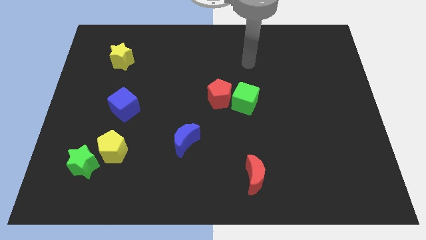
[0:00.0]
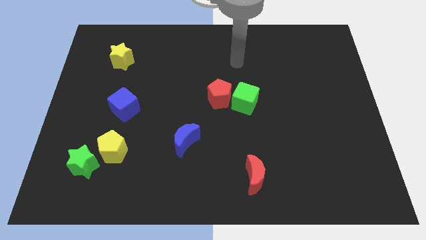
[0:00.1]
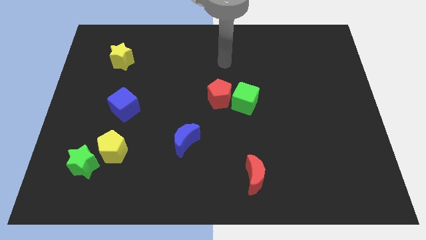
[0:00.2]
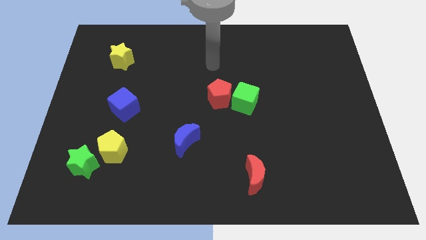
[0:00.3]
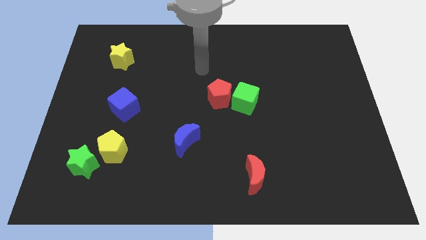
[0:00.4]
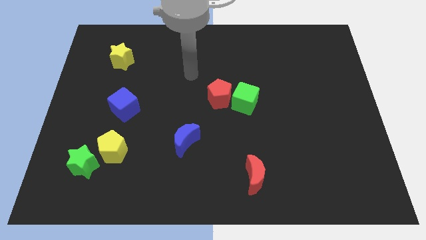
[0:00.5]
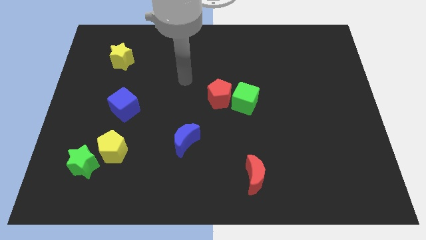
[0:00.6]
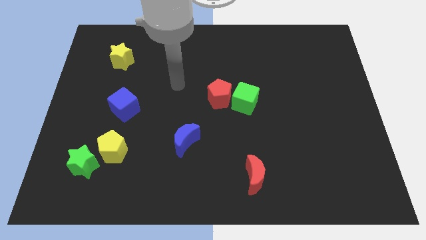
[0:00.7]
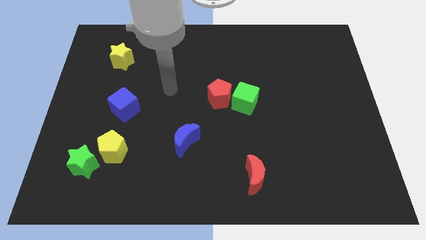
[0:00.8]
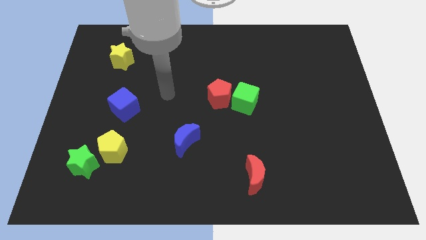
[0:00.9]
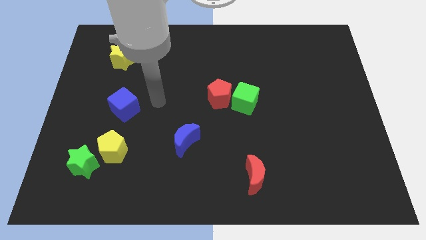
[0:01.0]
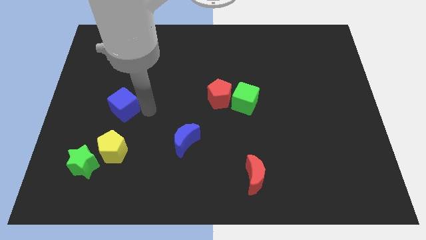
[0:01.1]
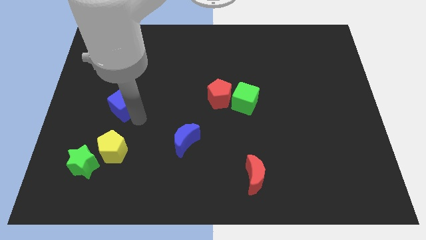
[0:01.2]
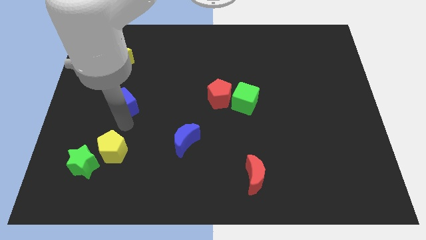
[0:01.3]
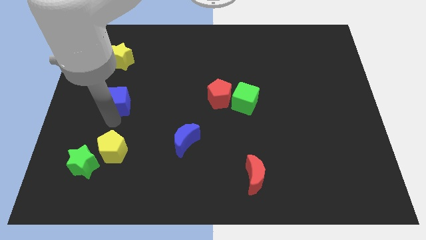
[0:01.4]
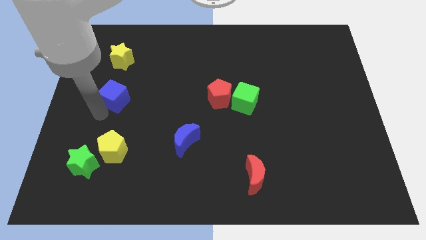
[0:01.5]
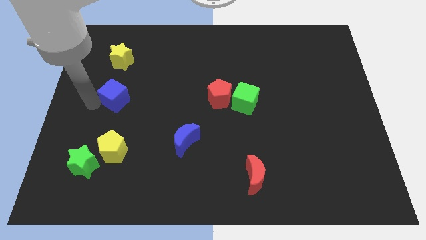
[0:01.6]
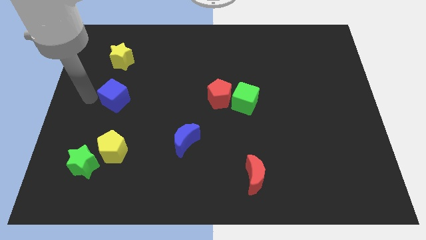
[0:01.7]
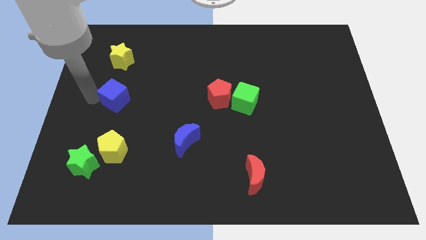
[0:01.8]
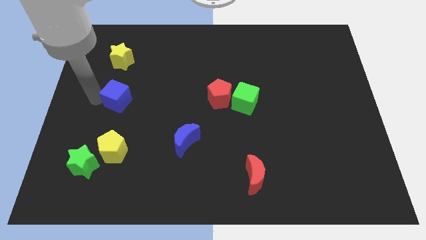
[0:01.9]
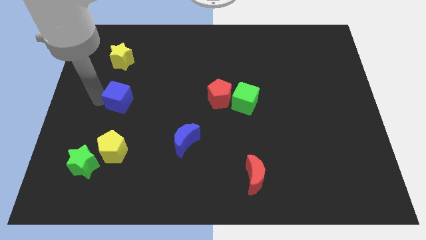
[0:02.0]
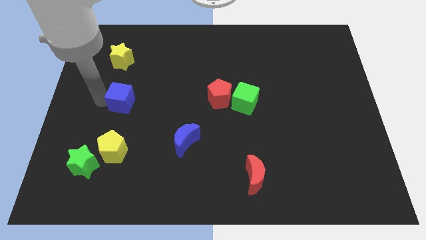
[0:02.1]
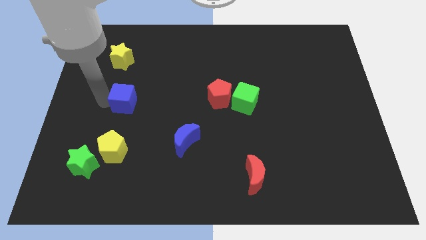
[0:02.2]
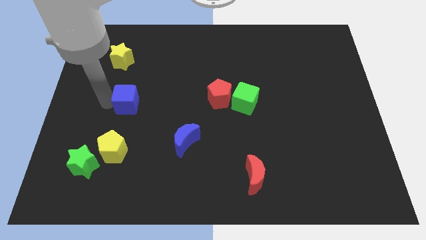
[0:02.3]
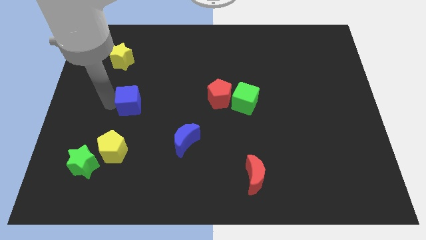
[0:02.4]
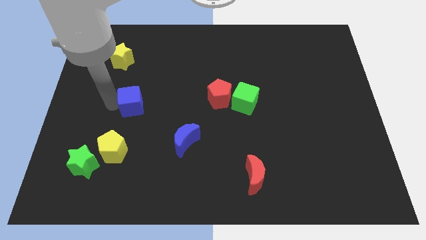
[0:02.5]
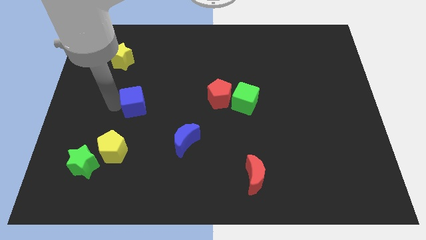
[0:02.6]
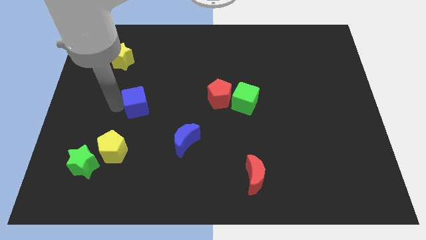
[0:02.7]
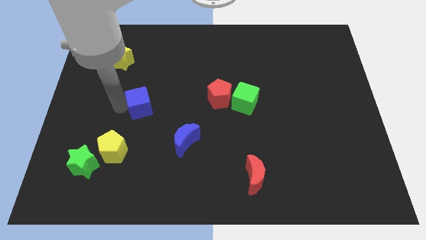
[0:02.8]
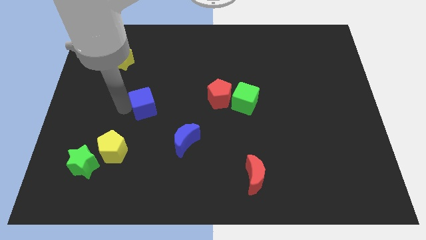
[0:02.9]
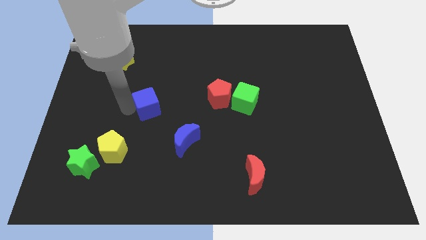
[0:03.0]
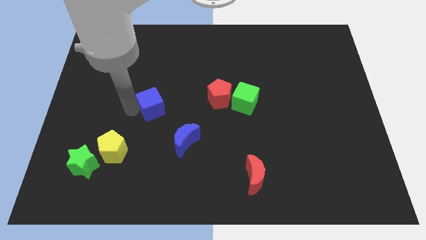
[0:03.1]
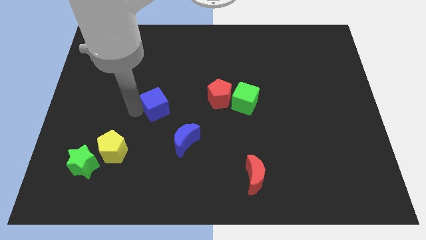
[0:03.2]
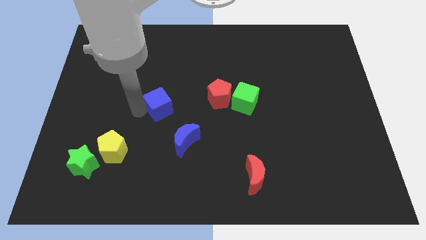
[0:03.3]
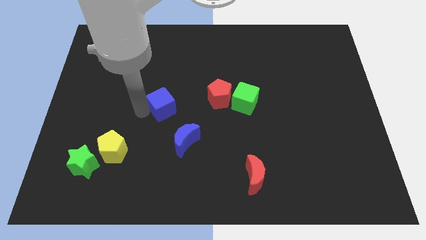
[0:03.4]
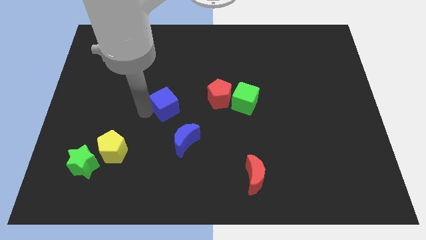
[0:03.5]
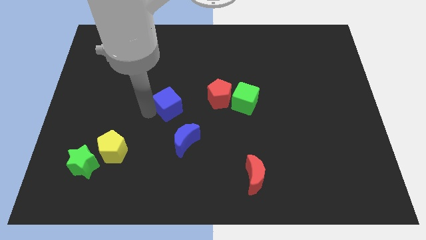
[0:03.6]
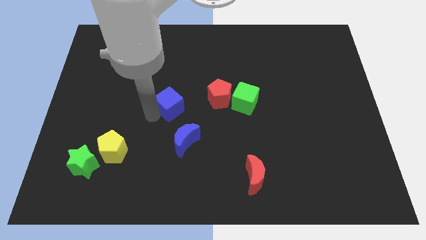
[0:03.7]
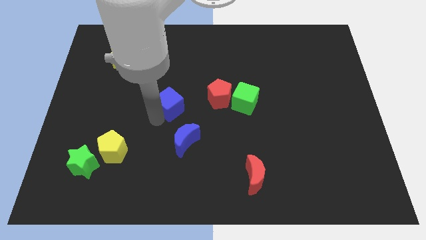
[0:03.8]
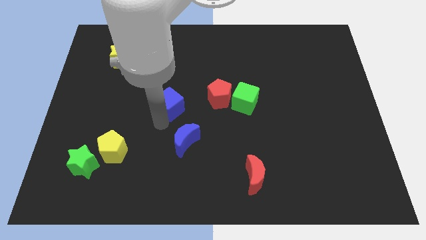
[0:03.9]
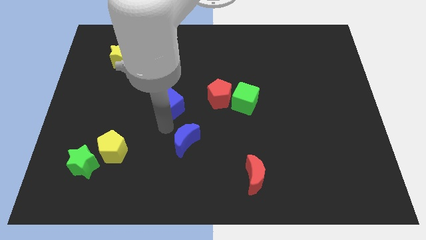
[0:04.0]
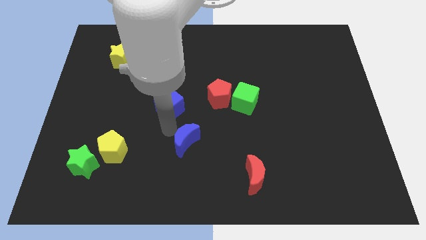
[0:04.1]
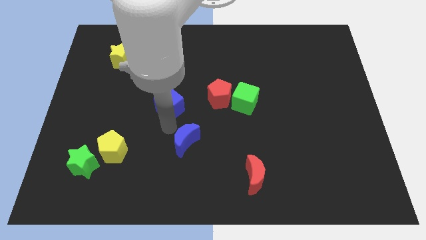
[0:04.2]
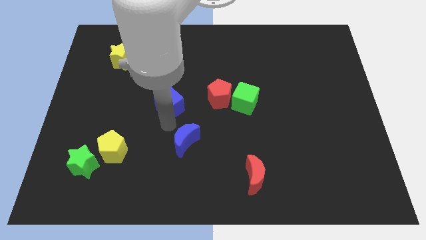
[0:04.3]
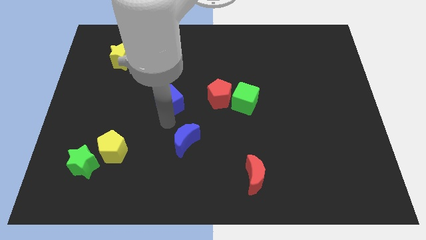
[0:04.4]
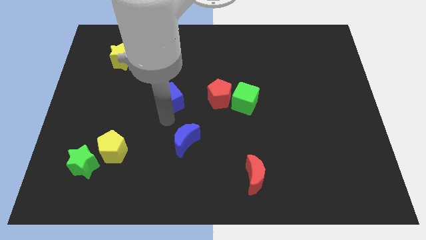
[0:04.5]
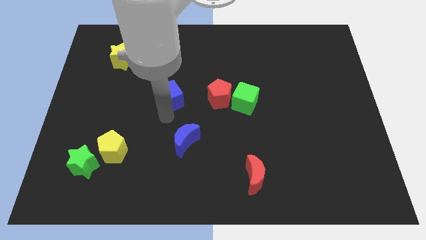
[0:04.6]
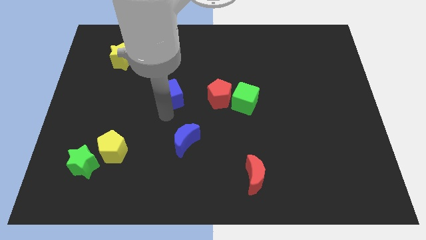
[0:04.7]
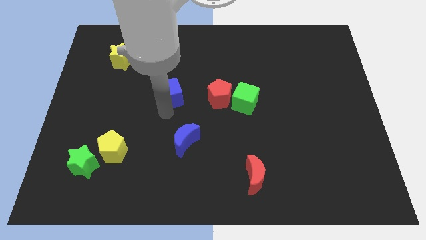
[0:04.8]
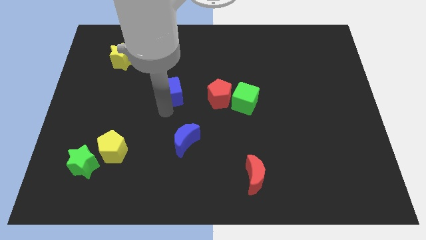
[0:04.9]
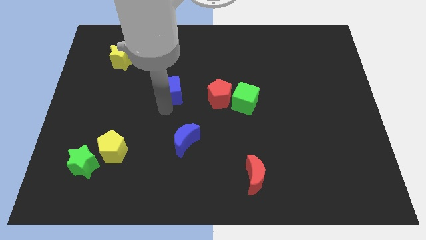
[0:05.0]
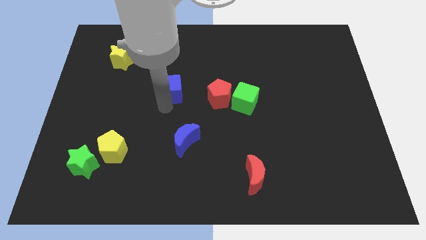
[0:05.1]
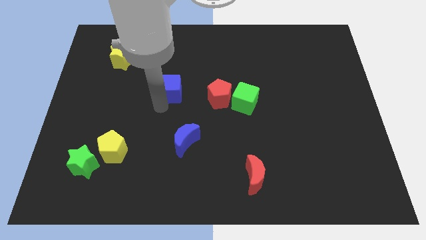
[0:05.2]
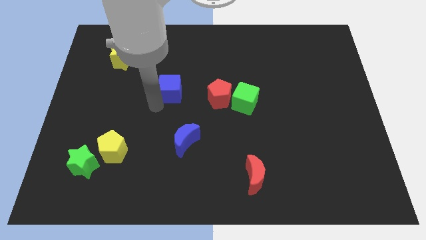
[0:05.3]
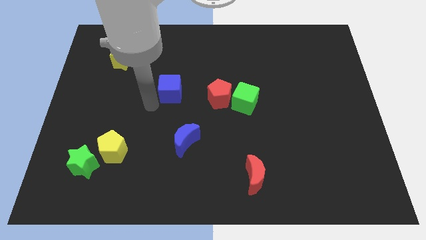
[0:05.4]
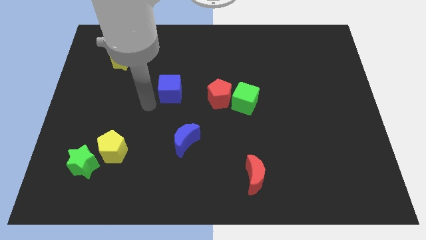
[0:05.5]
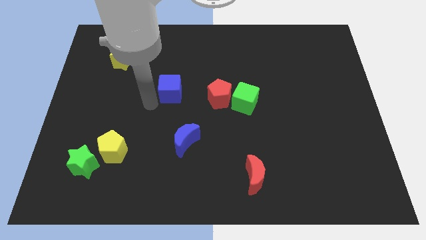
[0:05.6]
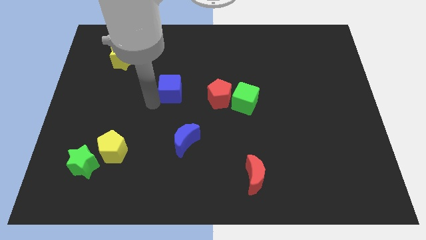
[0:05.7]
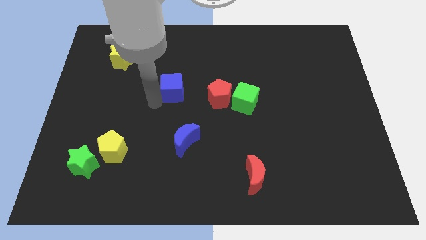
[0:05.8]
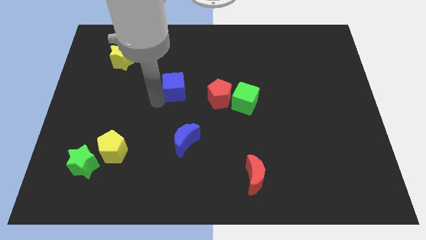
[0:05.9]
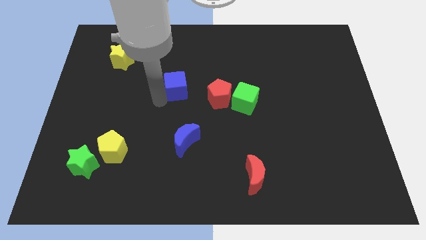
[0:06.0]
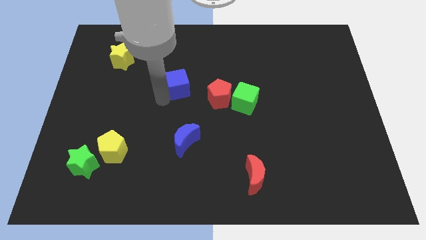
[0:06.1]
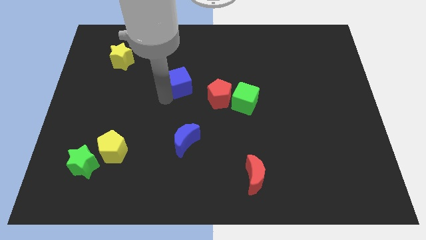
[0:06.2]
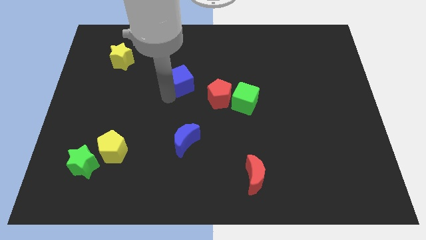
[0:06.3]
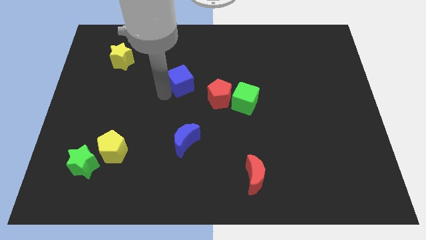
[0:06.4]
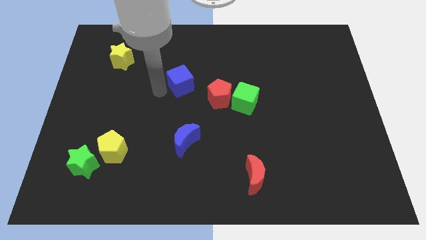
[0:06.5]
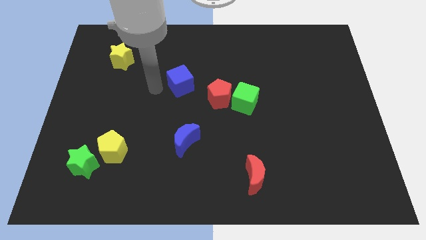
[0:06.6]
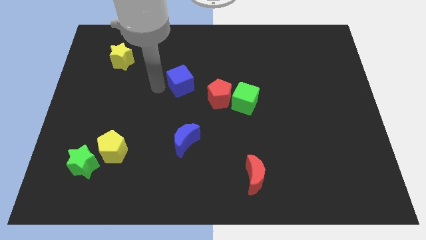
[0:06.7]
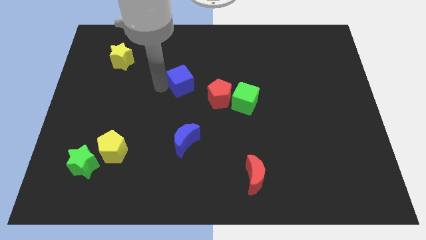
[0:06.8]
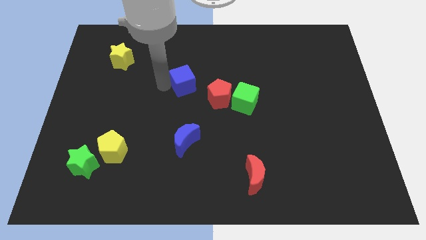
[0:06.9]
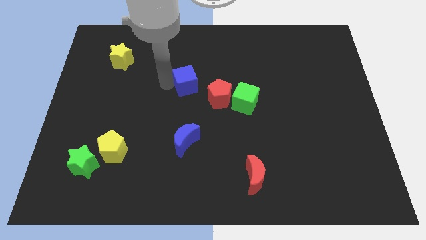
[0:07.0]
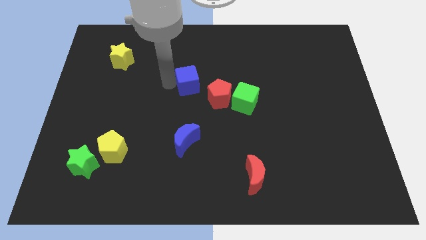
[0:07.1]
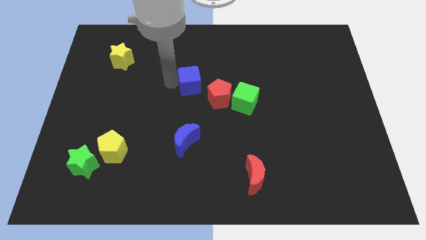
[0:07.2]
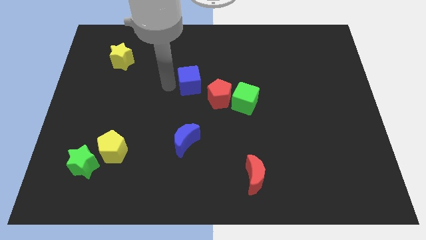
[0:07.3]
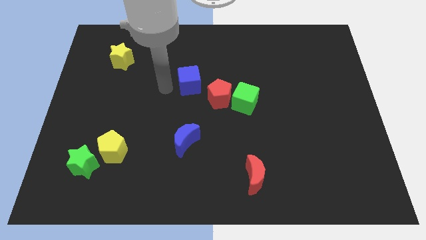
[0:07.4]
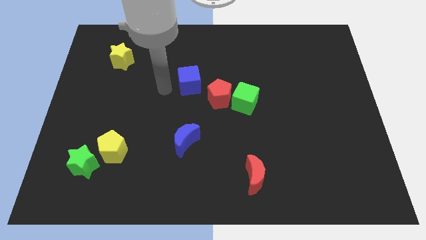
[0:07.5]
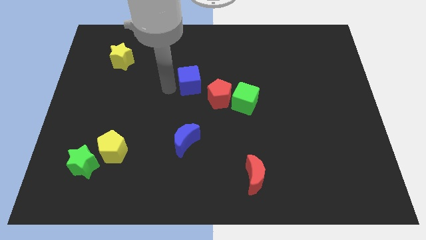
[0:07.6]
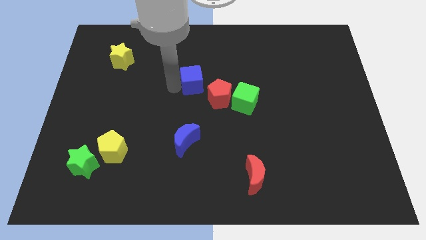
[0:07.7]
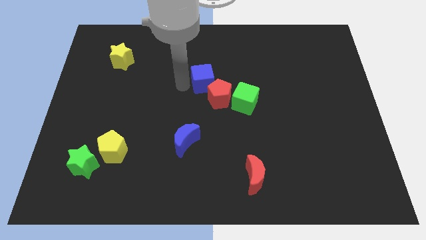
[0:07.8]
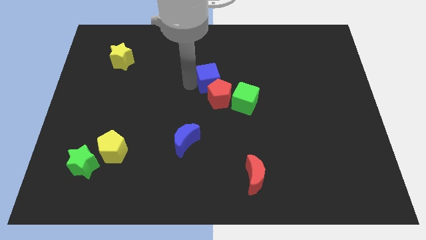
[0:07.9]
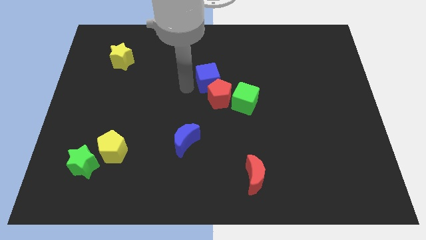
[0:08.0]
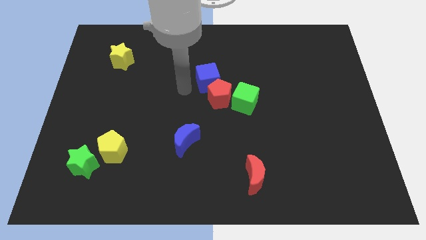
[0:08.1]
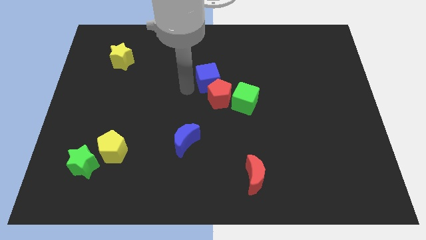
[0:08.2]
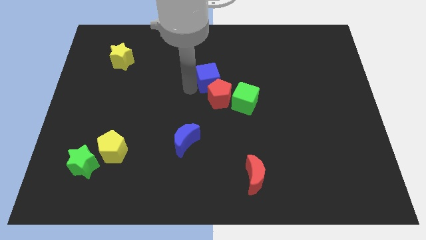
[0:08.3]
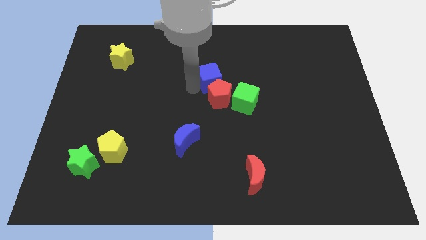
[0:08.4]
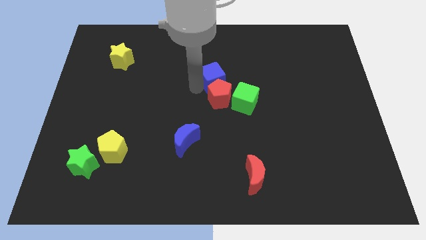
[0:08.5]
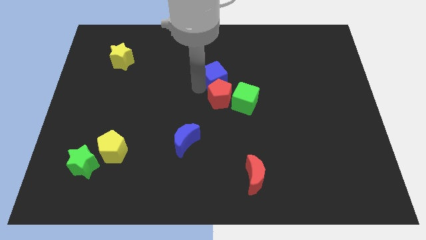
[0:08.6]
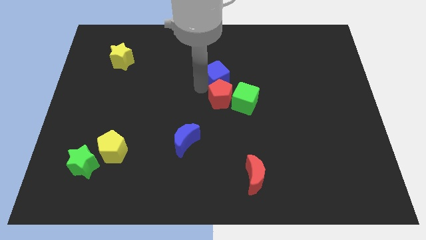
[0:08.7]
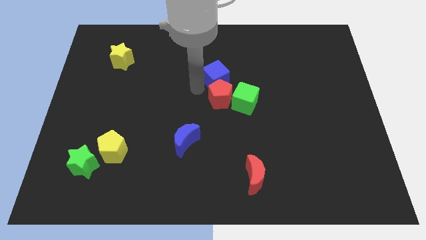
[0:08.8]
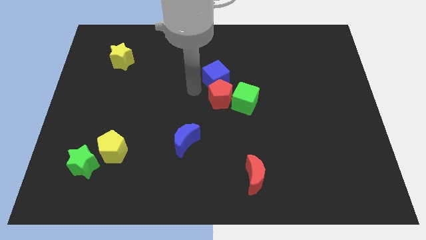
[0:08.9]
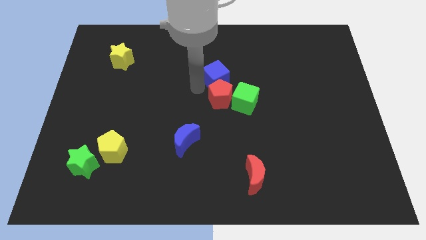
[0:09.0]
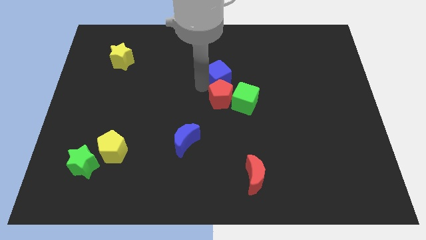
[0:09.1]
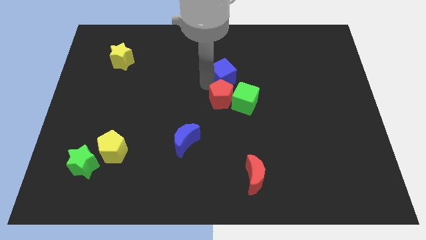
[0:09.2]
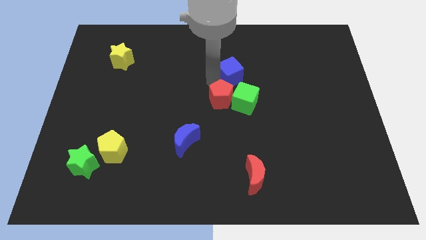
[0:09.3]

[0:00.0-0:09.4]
push the blue cube to the top side of the green cube
